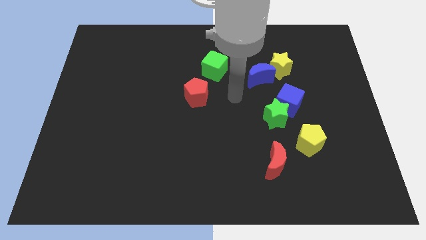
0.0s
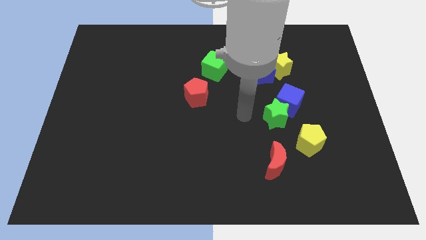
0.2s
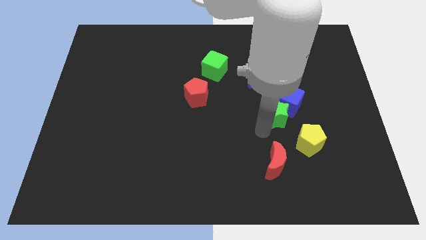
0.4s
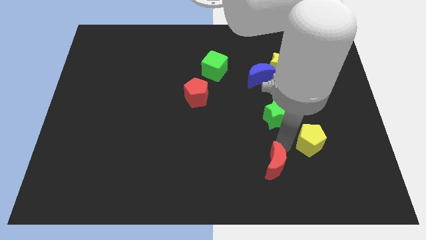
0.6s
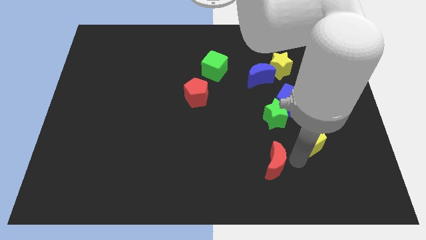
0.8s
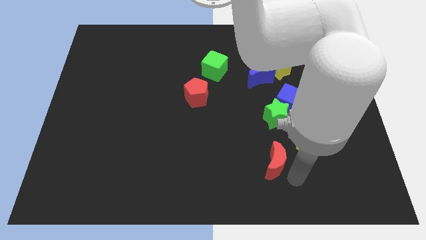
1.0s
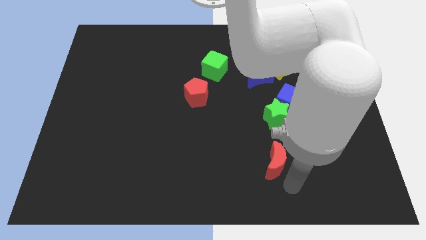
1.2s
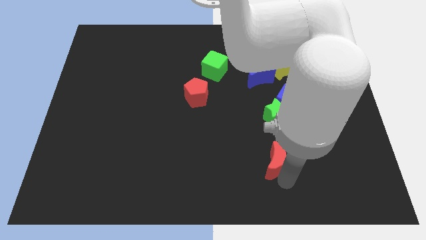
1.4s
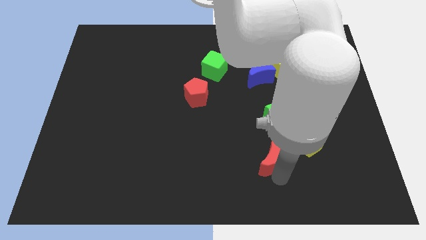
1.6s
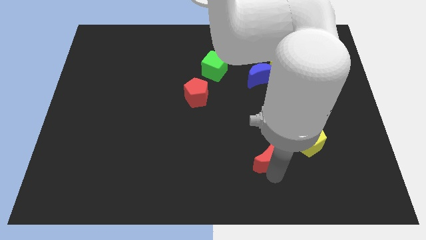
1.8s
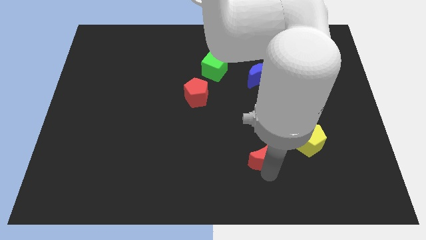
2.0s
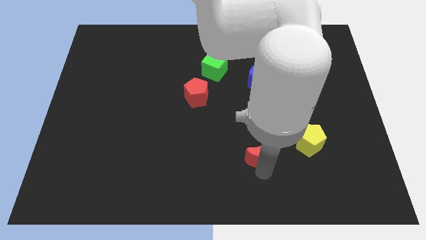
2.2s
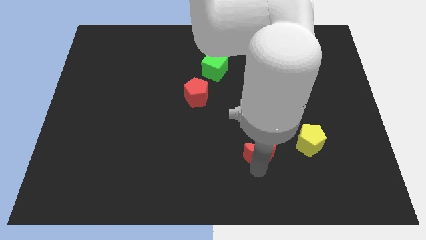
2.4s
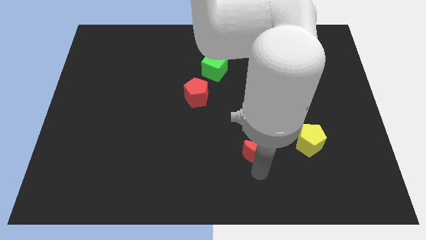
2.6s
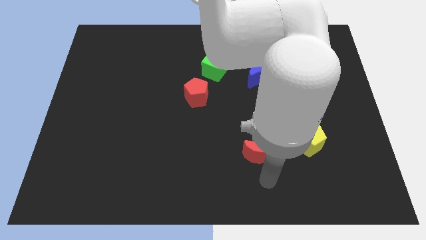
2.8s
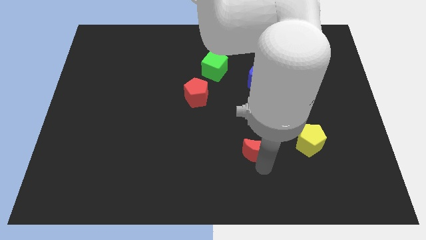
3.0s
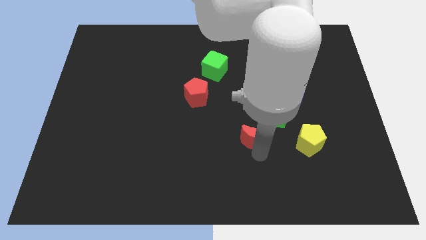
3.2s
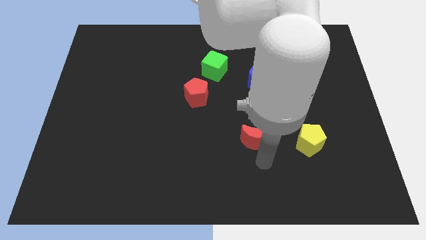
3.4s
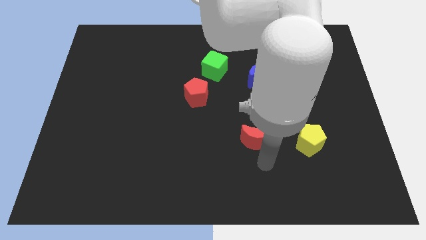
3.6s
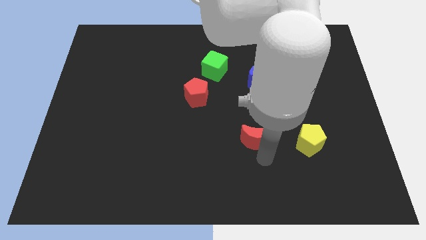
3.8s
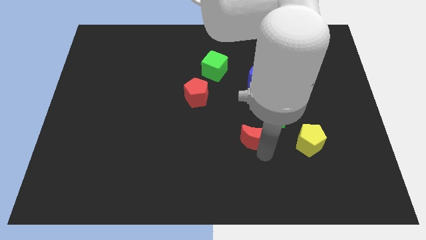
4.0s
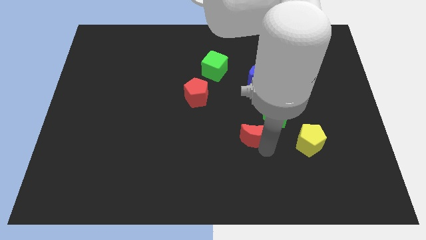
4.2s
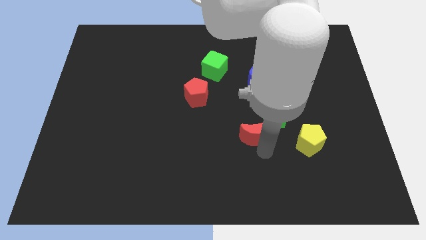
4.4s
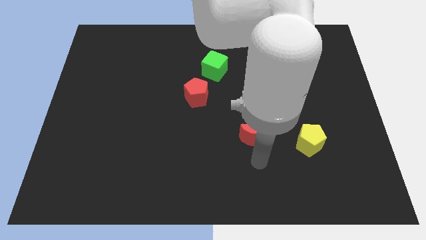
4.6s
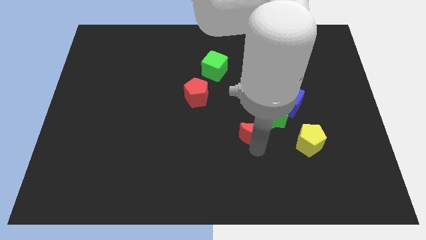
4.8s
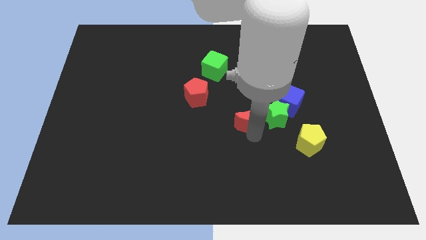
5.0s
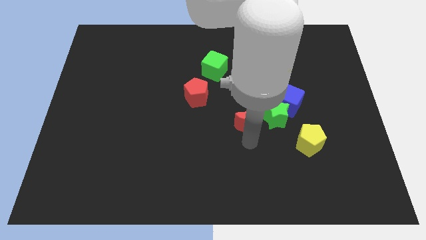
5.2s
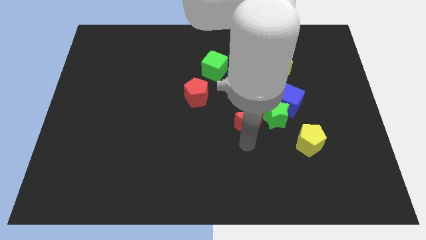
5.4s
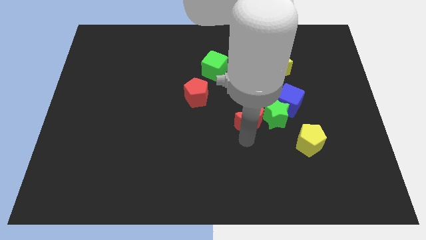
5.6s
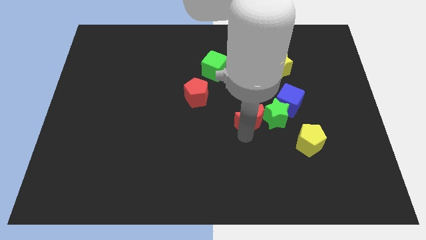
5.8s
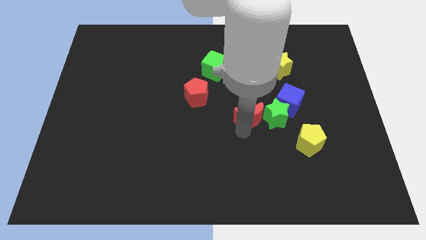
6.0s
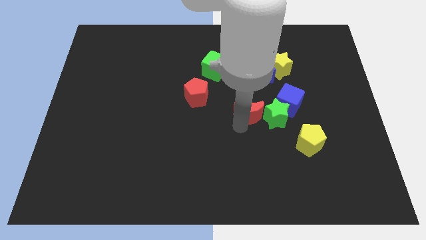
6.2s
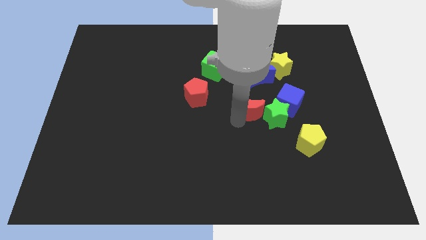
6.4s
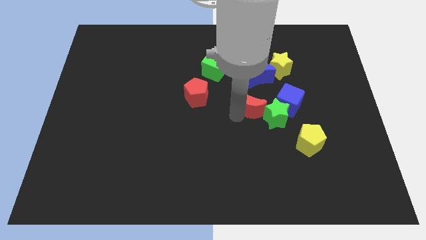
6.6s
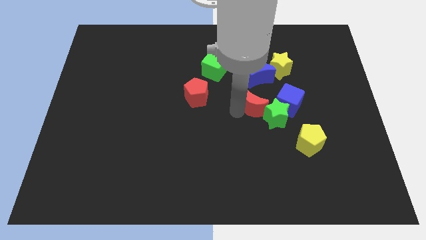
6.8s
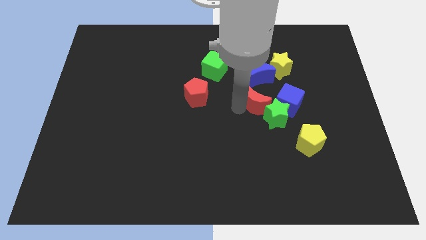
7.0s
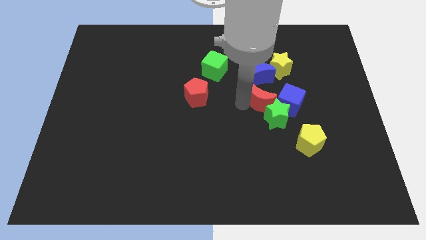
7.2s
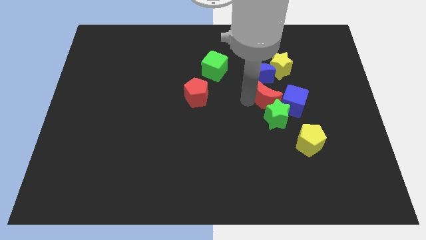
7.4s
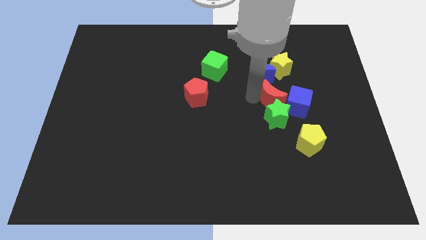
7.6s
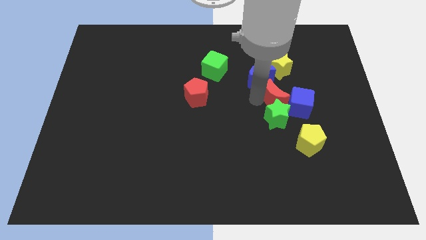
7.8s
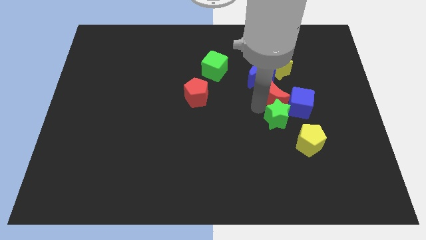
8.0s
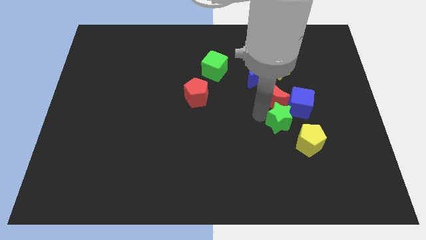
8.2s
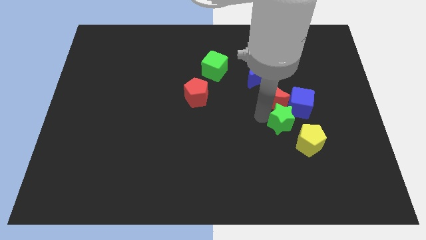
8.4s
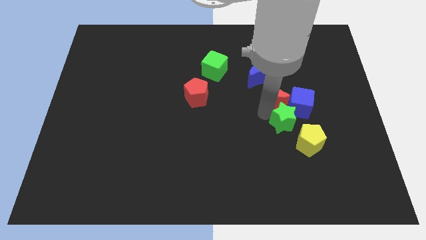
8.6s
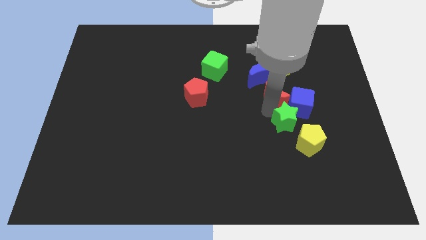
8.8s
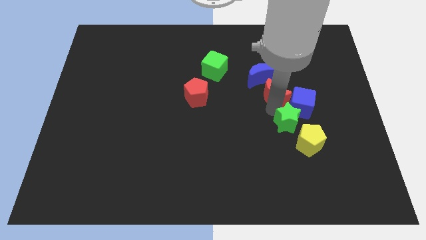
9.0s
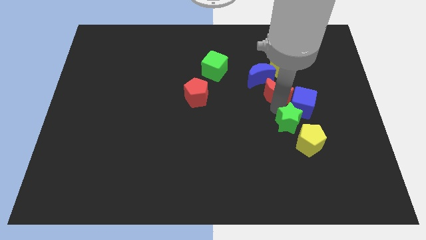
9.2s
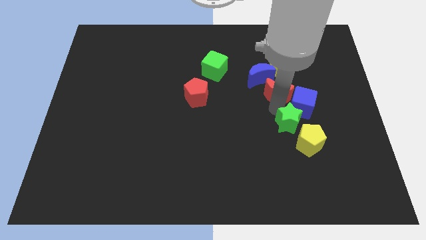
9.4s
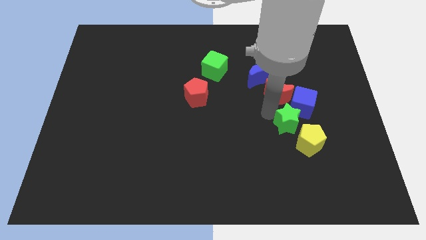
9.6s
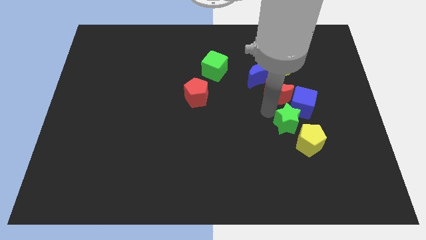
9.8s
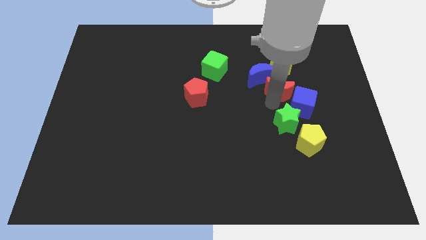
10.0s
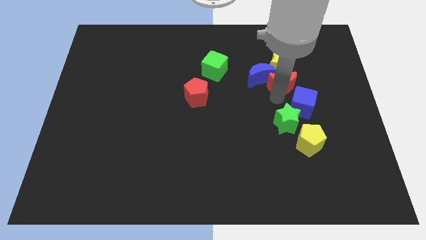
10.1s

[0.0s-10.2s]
slide the red moon to the yellow star

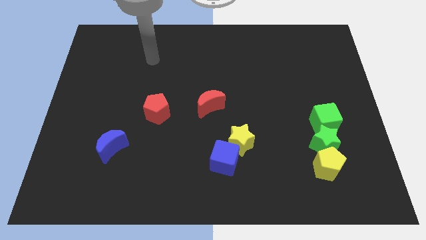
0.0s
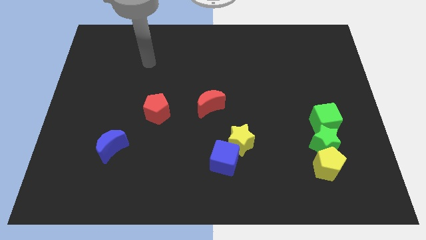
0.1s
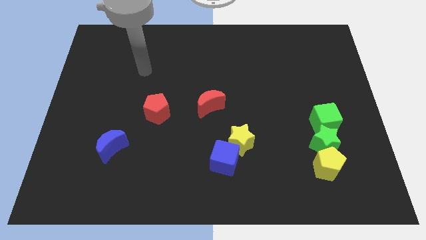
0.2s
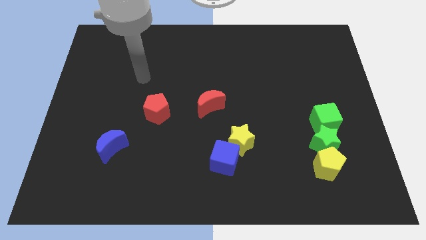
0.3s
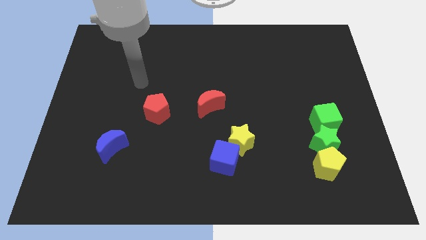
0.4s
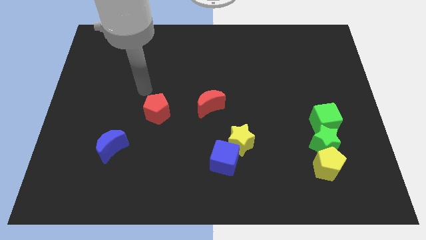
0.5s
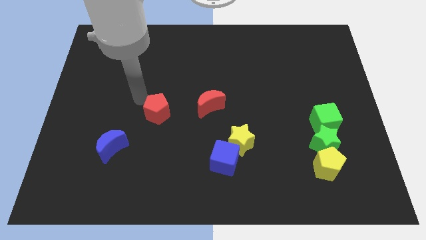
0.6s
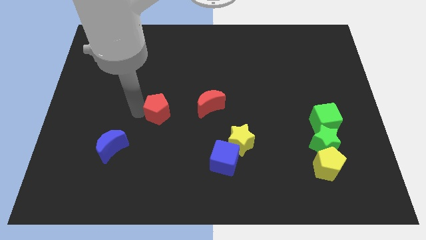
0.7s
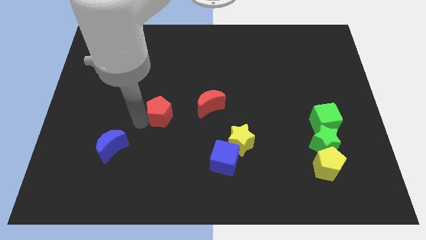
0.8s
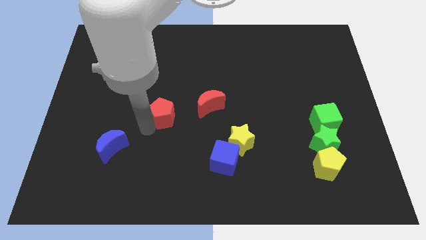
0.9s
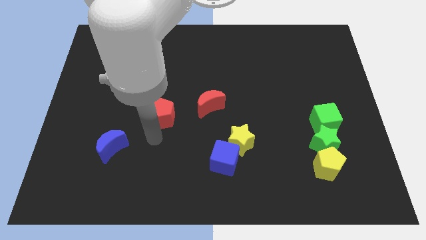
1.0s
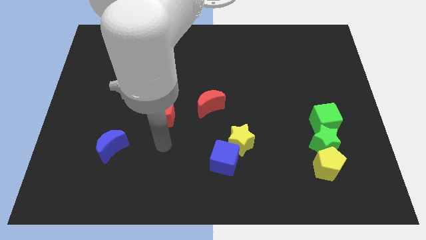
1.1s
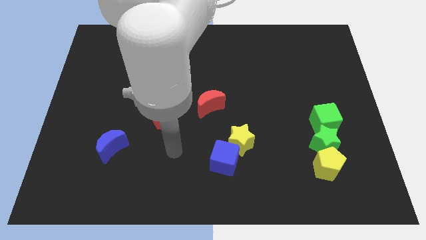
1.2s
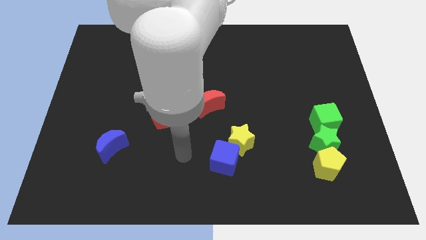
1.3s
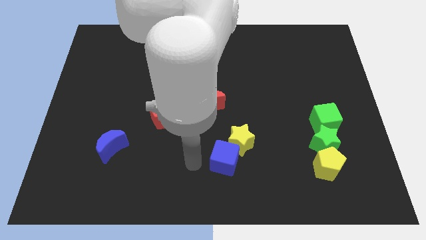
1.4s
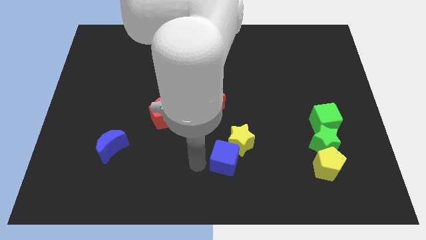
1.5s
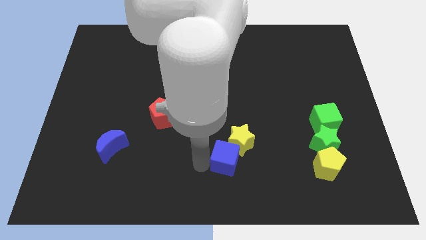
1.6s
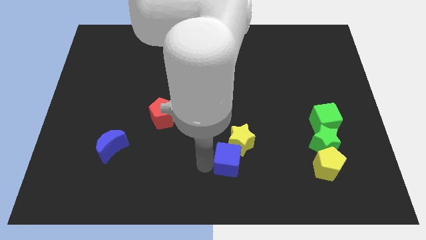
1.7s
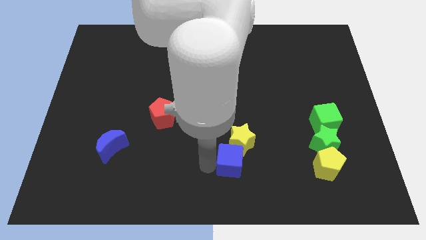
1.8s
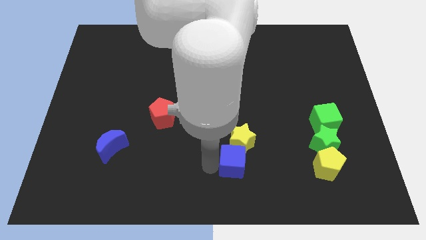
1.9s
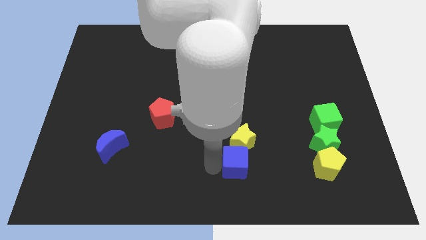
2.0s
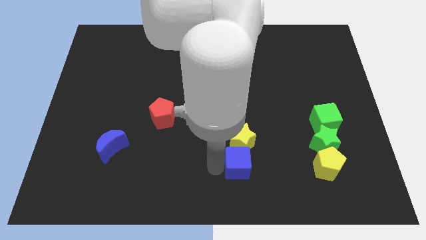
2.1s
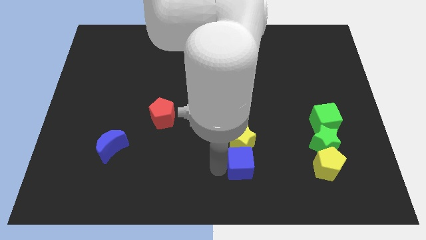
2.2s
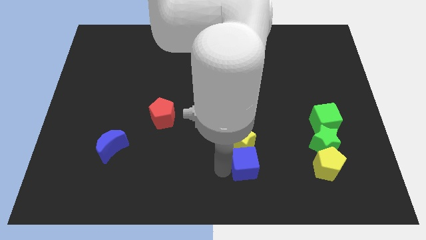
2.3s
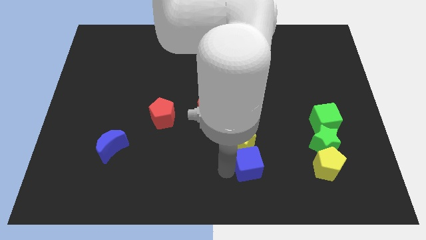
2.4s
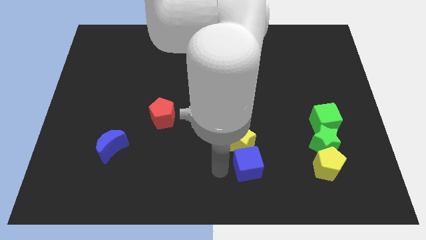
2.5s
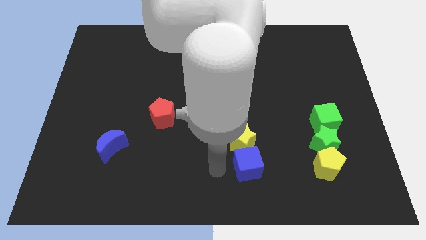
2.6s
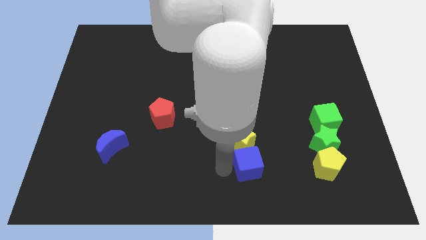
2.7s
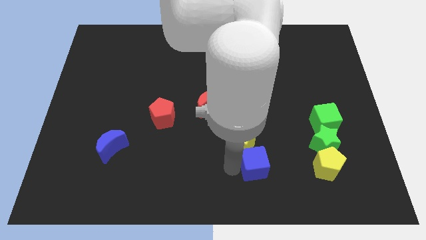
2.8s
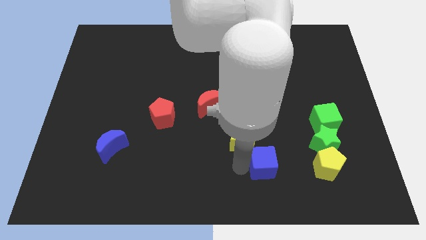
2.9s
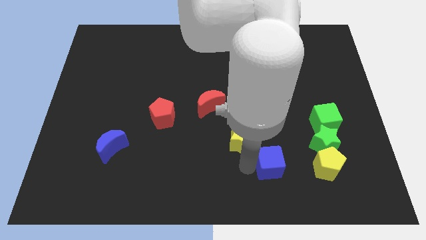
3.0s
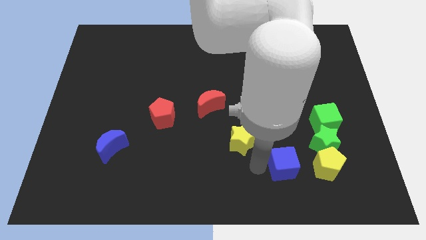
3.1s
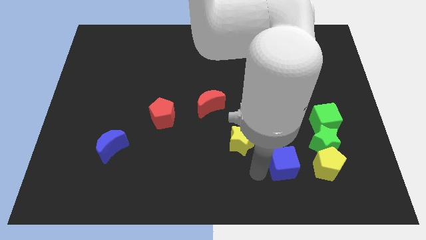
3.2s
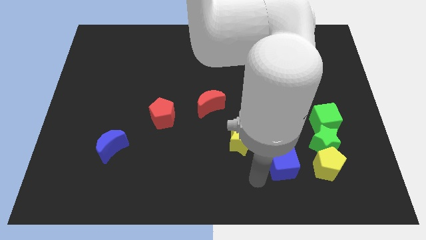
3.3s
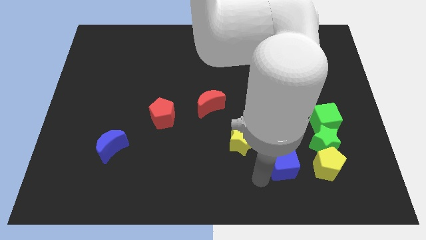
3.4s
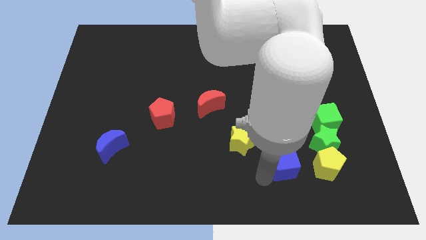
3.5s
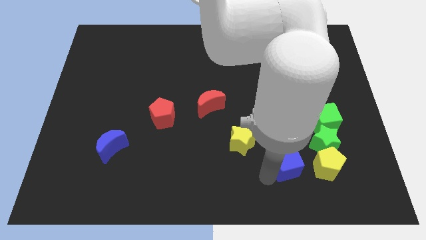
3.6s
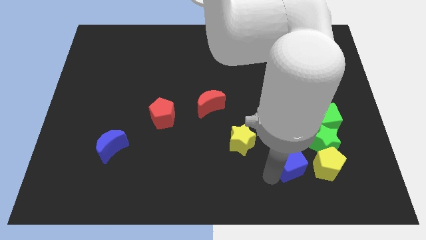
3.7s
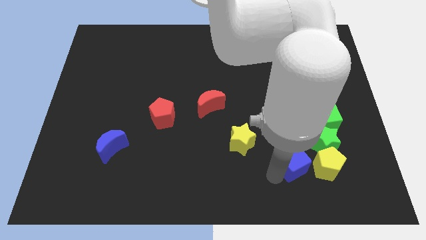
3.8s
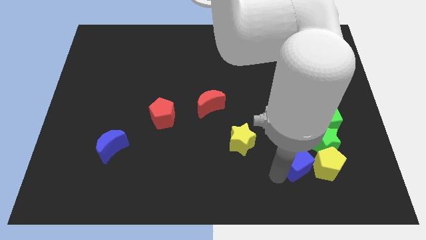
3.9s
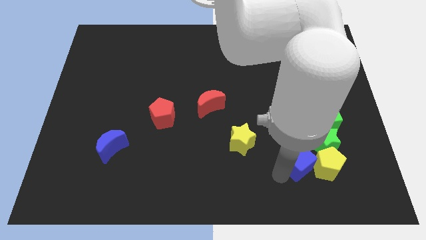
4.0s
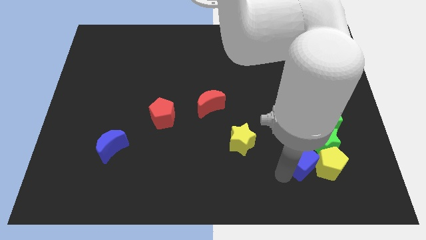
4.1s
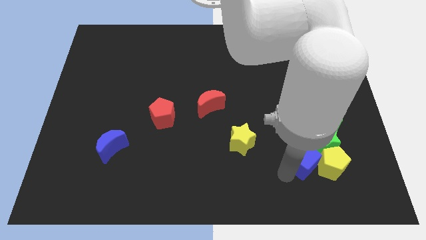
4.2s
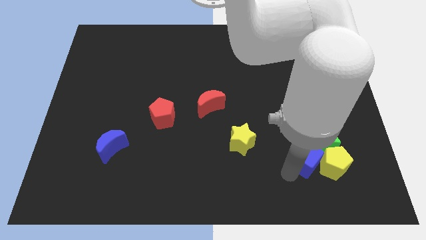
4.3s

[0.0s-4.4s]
put the blue cube to the green star
